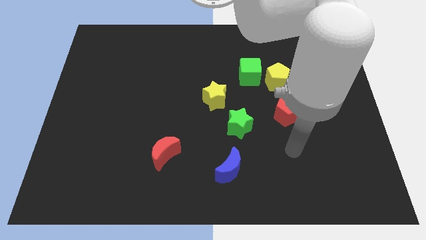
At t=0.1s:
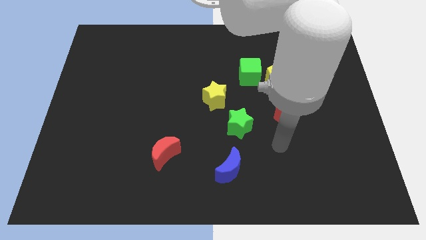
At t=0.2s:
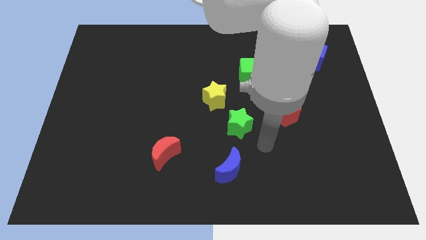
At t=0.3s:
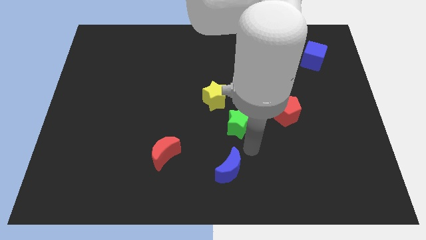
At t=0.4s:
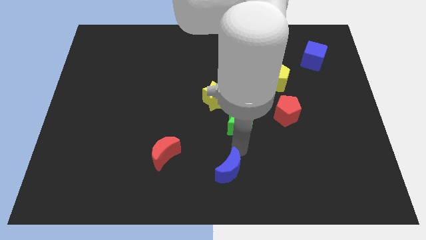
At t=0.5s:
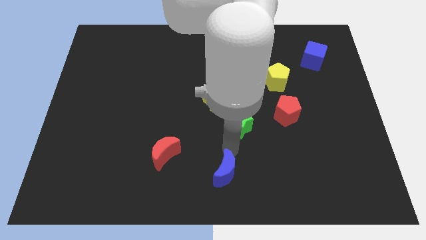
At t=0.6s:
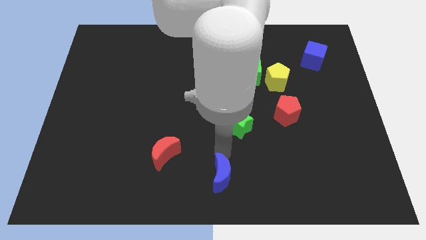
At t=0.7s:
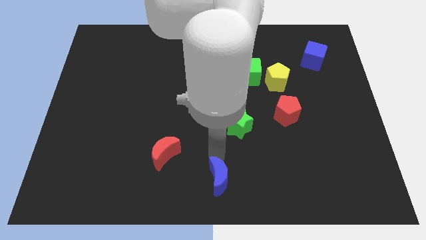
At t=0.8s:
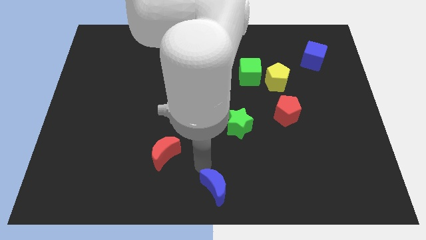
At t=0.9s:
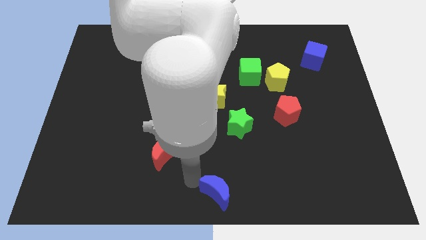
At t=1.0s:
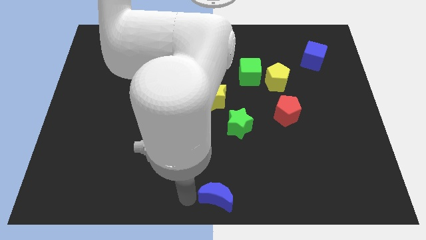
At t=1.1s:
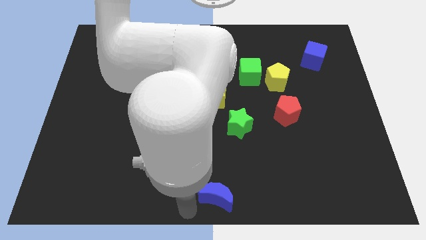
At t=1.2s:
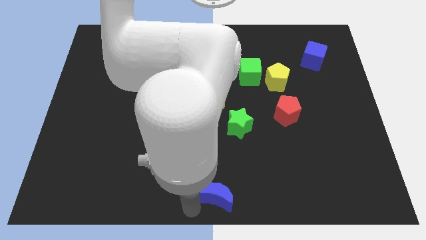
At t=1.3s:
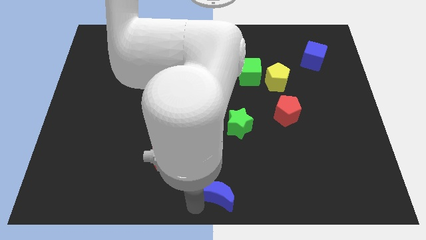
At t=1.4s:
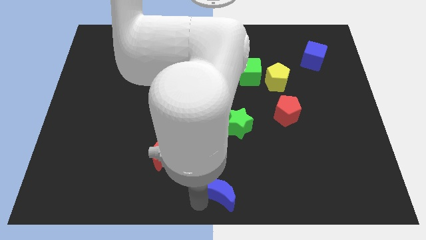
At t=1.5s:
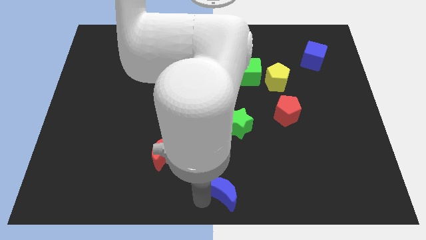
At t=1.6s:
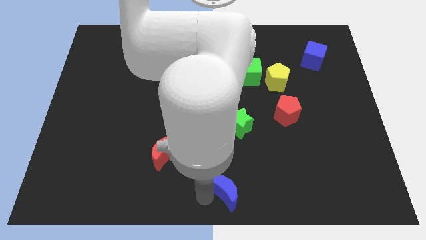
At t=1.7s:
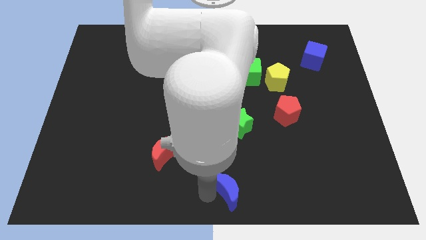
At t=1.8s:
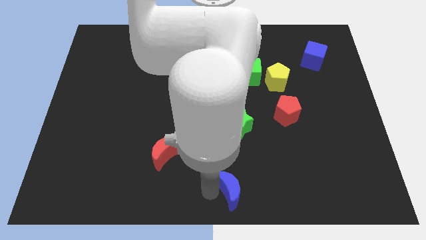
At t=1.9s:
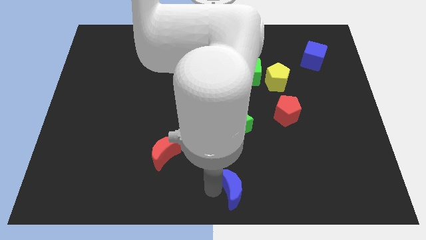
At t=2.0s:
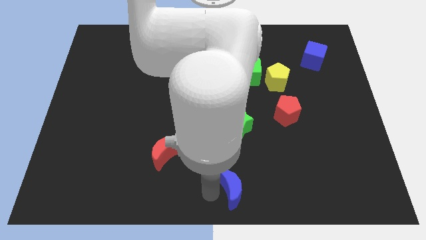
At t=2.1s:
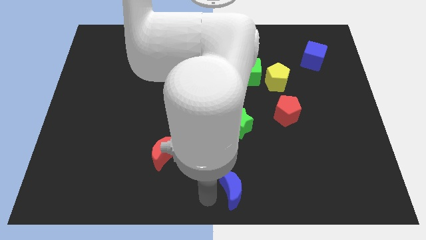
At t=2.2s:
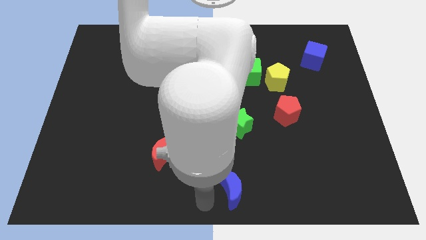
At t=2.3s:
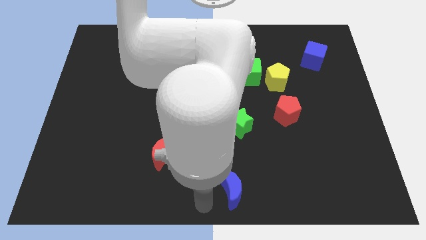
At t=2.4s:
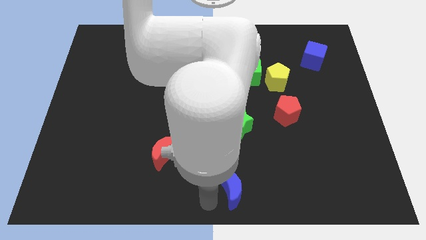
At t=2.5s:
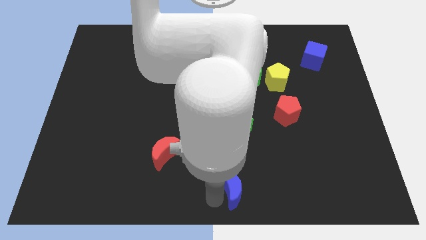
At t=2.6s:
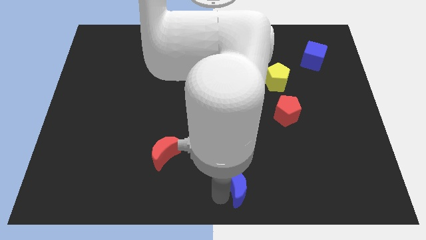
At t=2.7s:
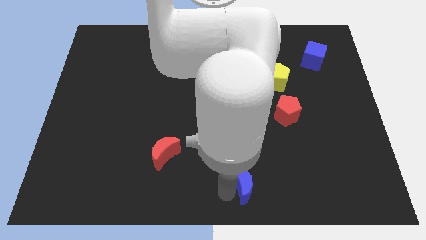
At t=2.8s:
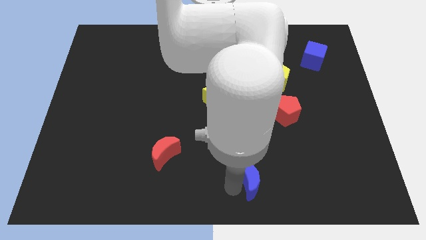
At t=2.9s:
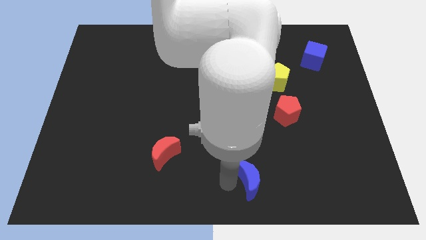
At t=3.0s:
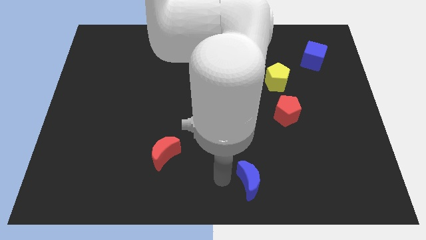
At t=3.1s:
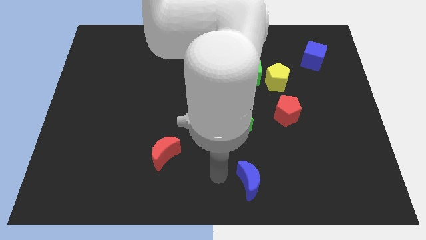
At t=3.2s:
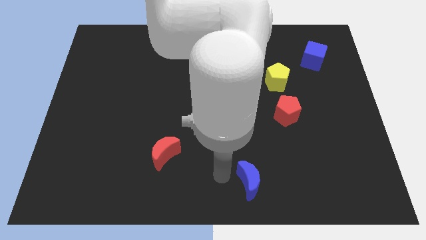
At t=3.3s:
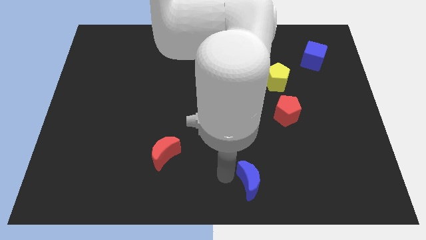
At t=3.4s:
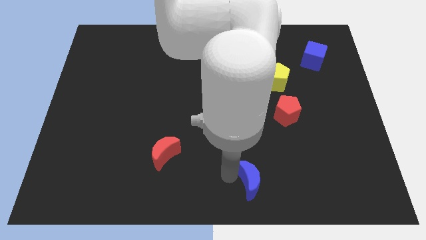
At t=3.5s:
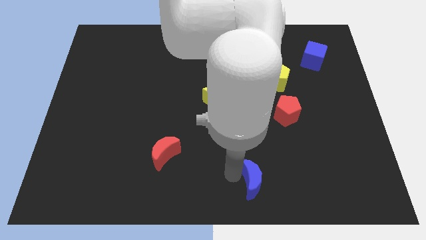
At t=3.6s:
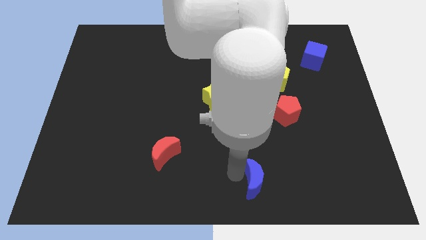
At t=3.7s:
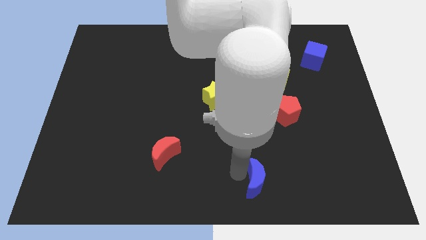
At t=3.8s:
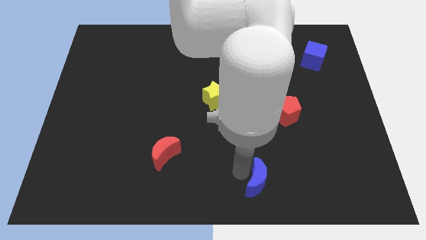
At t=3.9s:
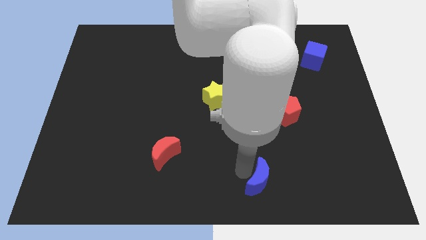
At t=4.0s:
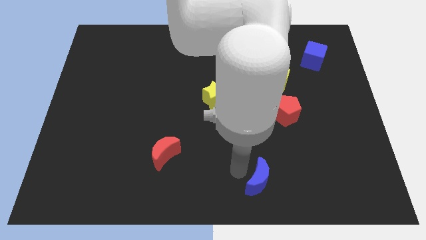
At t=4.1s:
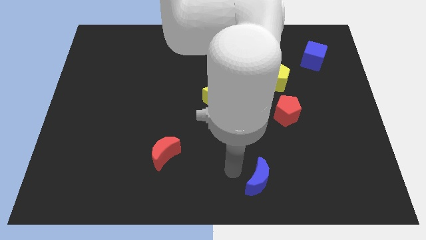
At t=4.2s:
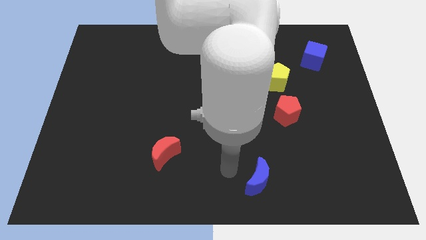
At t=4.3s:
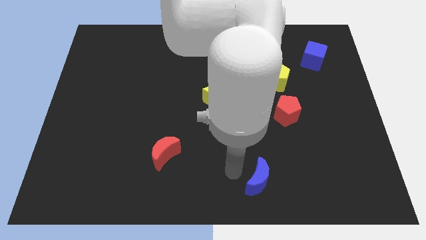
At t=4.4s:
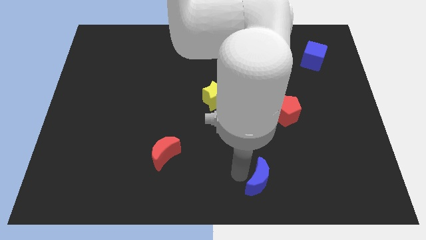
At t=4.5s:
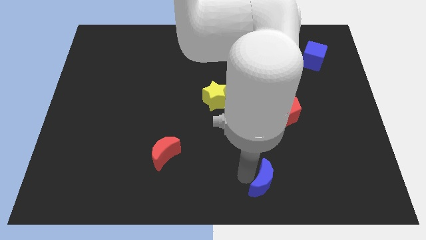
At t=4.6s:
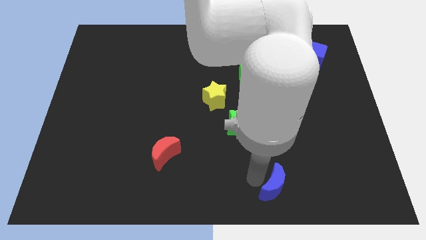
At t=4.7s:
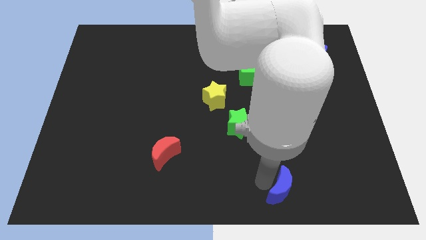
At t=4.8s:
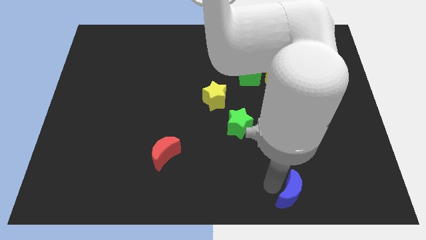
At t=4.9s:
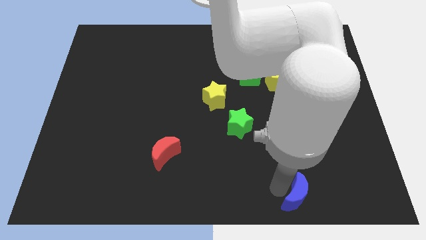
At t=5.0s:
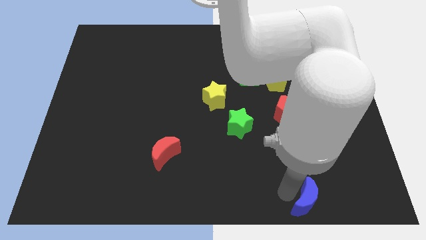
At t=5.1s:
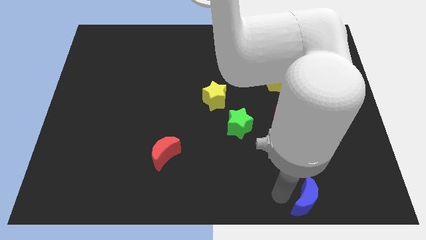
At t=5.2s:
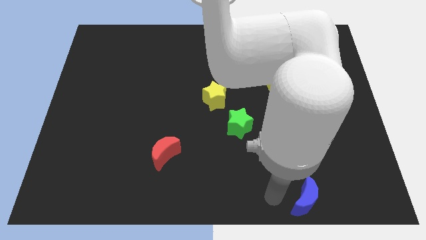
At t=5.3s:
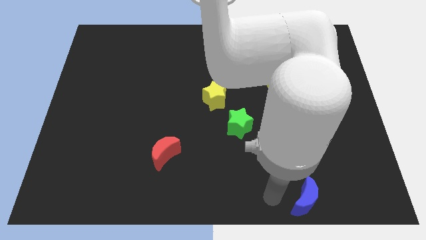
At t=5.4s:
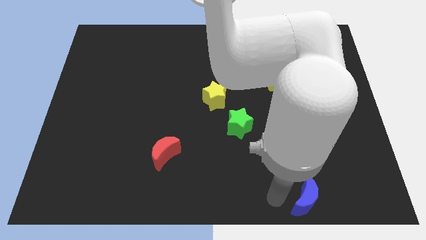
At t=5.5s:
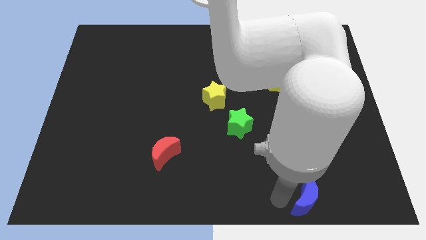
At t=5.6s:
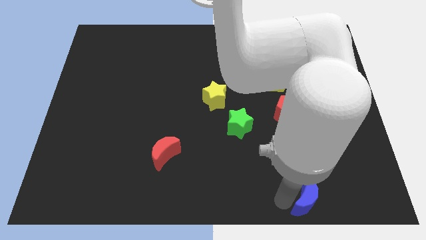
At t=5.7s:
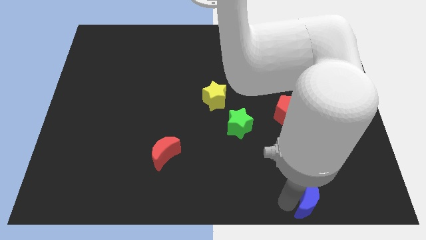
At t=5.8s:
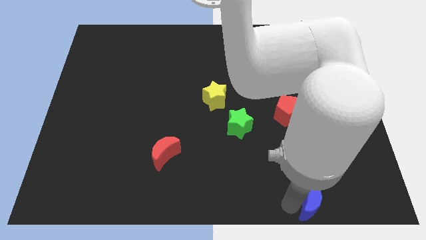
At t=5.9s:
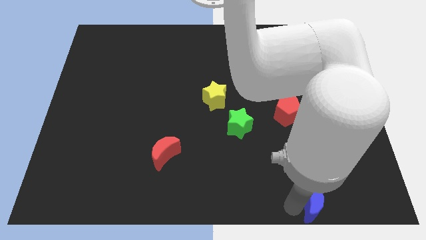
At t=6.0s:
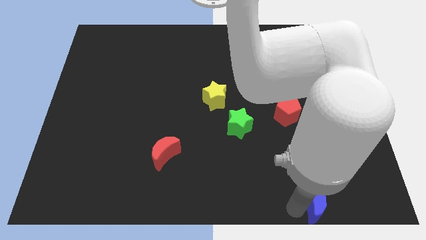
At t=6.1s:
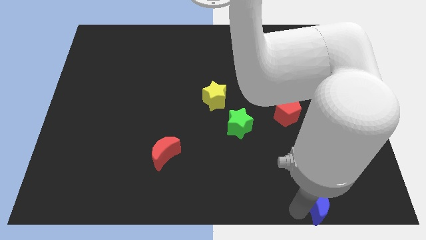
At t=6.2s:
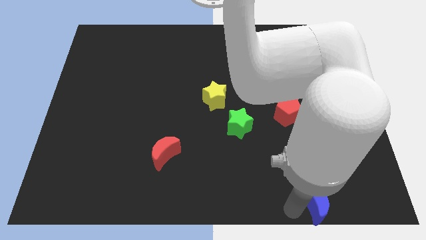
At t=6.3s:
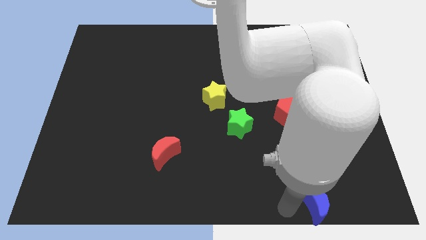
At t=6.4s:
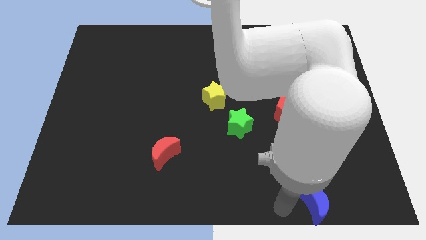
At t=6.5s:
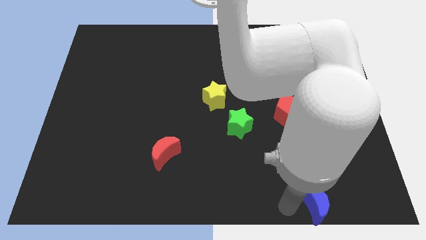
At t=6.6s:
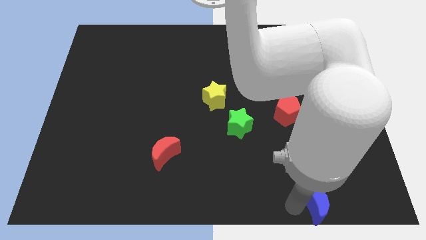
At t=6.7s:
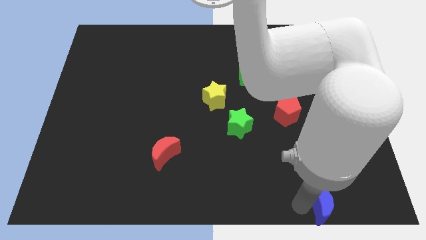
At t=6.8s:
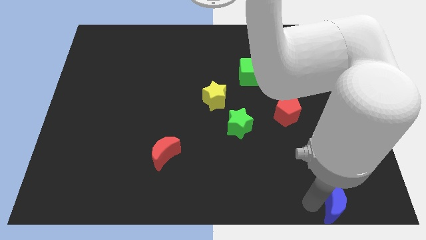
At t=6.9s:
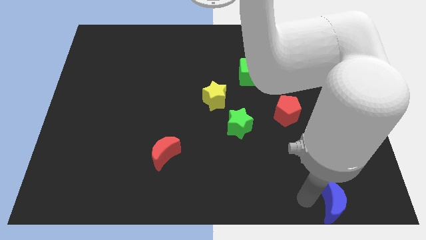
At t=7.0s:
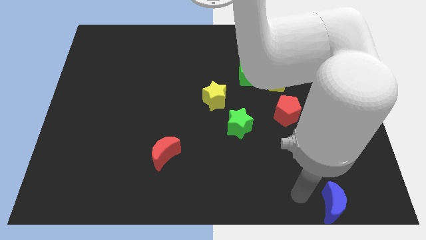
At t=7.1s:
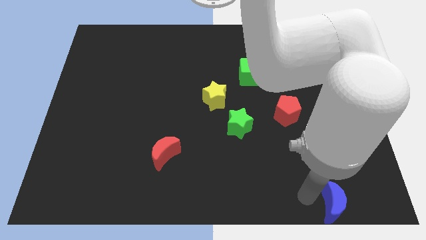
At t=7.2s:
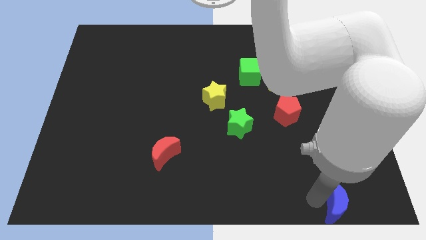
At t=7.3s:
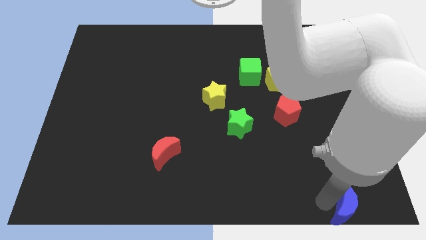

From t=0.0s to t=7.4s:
move the blue moon to the bottom right of the board
